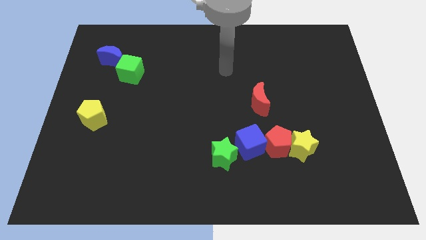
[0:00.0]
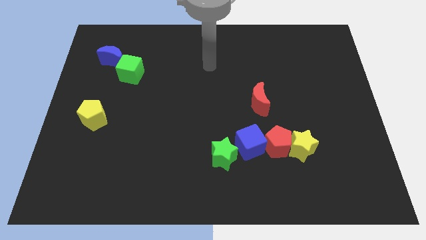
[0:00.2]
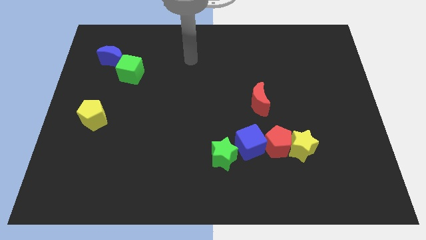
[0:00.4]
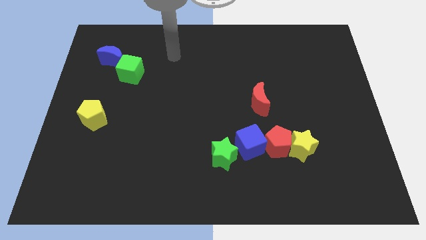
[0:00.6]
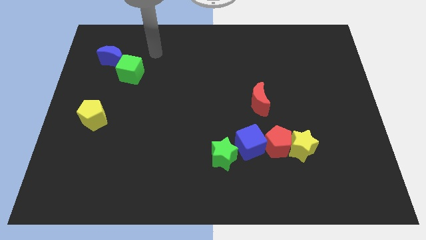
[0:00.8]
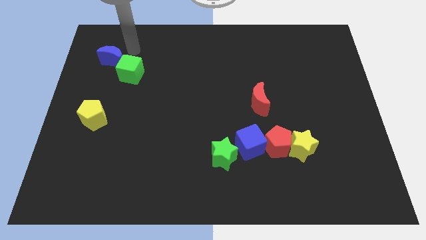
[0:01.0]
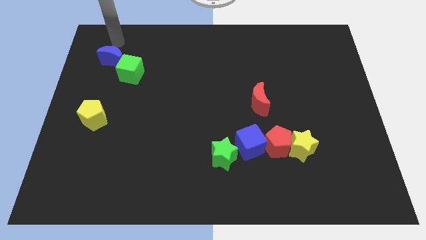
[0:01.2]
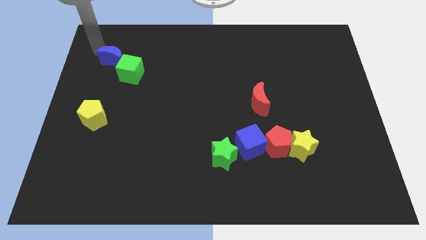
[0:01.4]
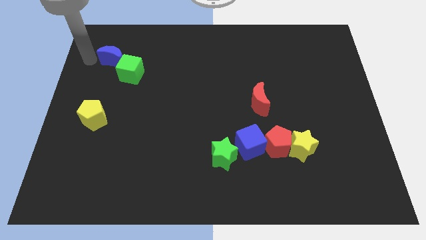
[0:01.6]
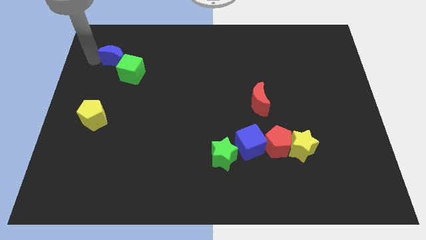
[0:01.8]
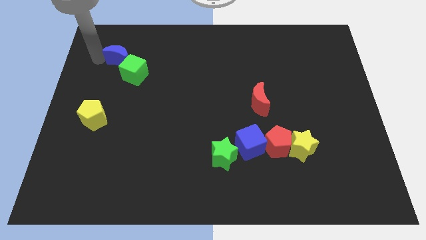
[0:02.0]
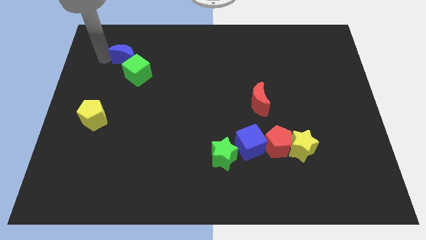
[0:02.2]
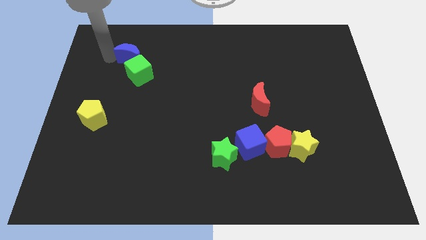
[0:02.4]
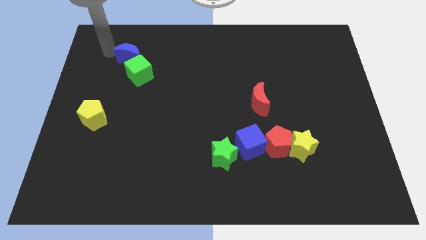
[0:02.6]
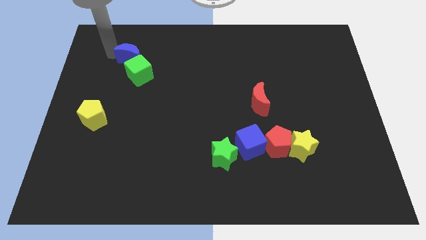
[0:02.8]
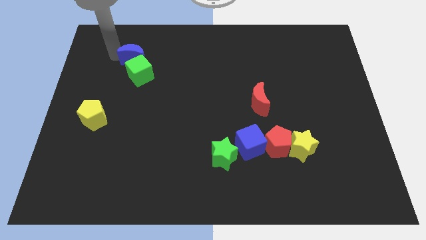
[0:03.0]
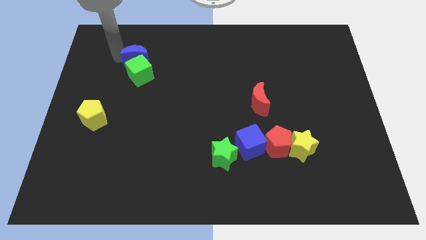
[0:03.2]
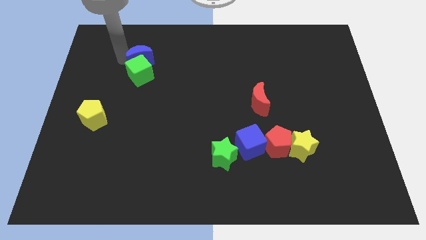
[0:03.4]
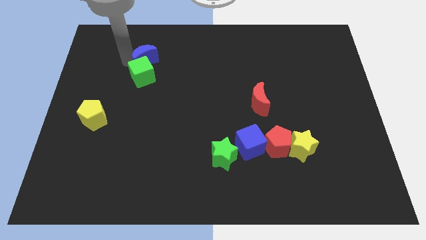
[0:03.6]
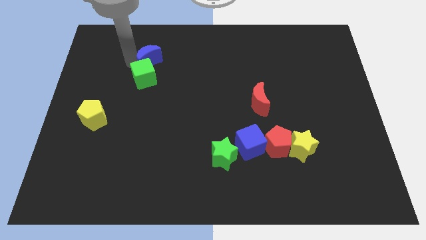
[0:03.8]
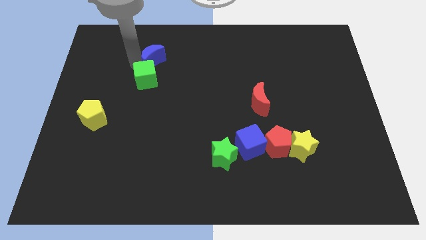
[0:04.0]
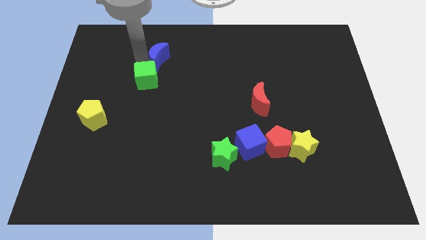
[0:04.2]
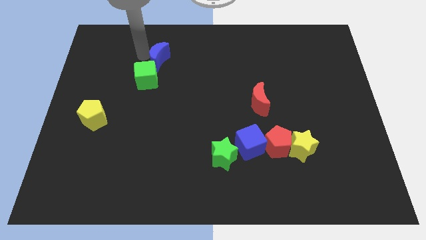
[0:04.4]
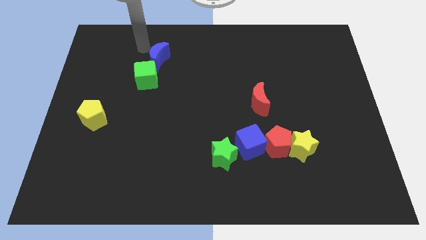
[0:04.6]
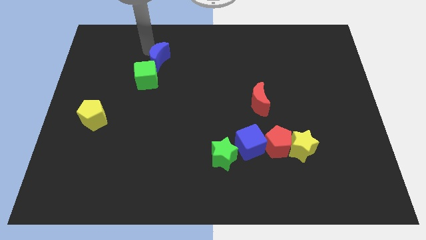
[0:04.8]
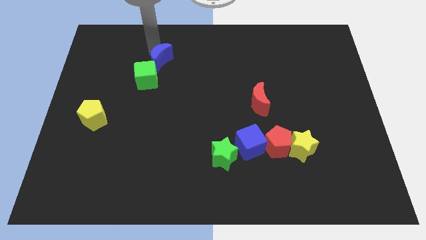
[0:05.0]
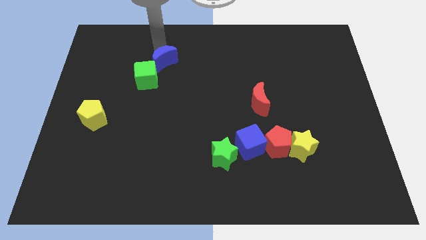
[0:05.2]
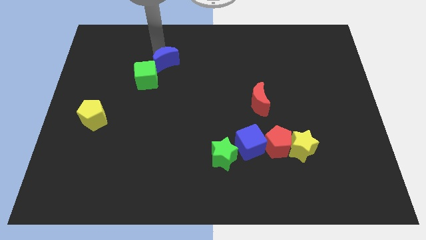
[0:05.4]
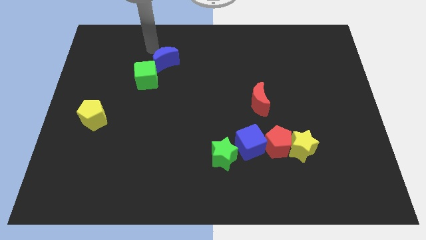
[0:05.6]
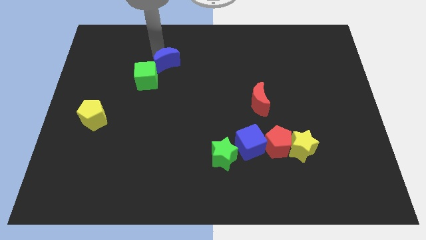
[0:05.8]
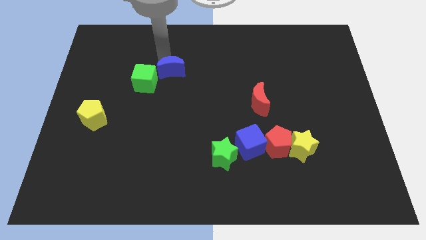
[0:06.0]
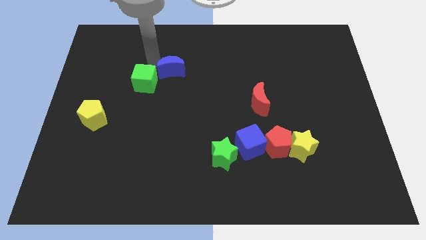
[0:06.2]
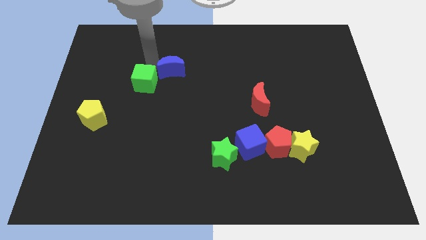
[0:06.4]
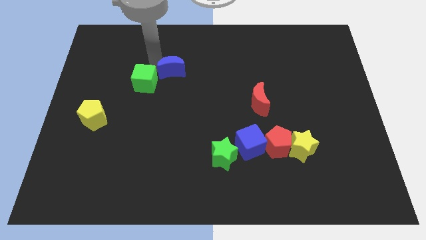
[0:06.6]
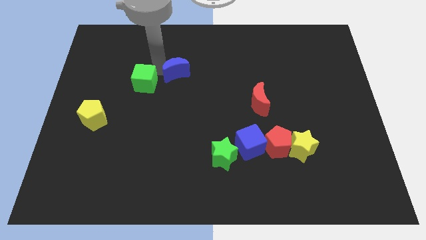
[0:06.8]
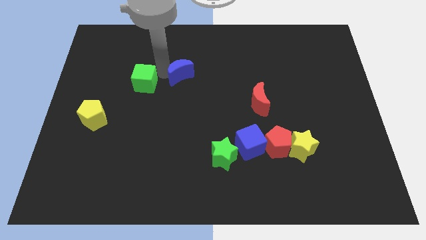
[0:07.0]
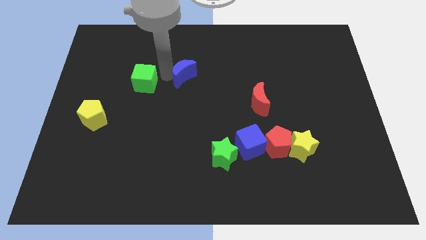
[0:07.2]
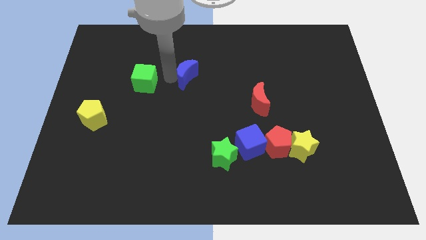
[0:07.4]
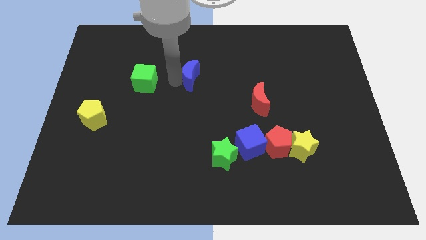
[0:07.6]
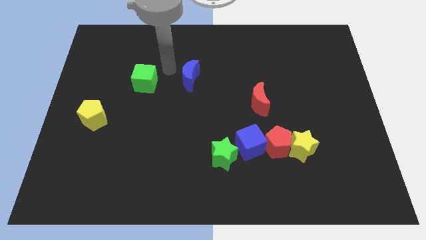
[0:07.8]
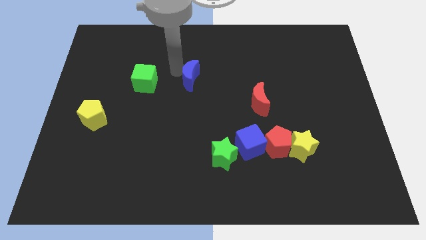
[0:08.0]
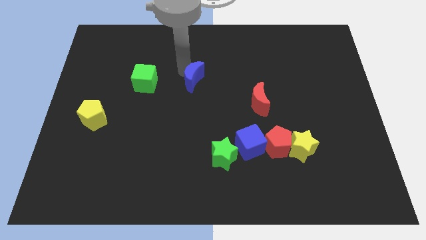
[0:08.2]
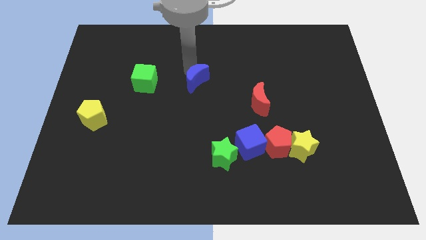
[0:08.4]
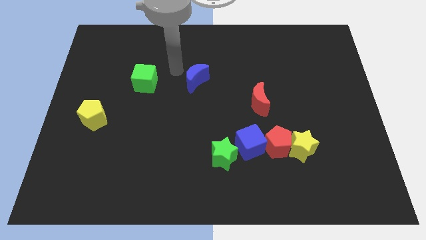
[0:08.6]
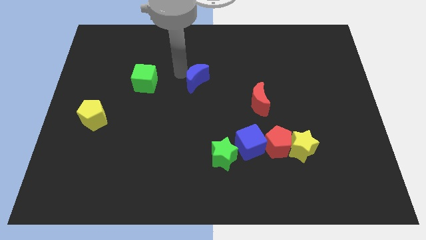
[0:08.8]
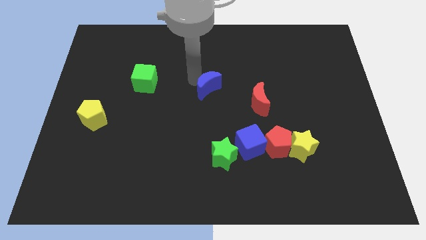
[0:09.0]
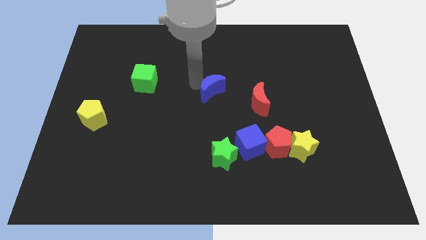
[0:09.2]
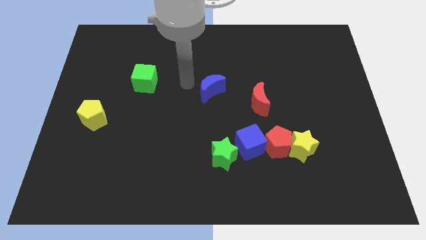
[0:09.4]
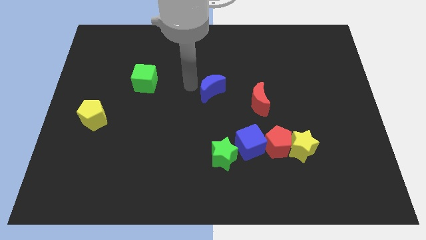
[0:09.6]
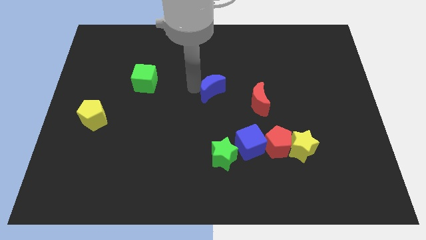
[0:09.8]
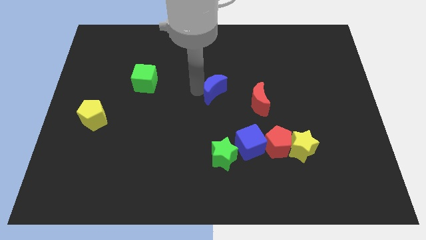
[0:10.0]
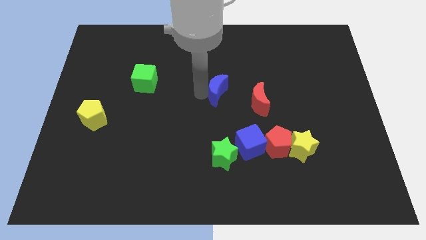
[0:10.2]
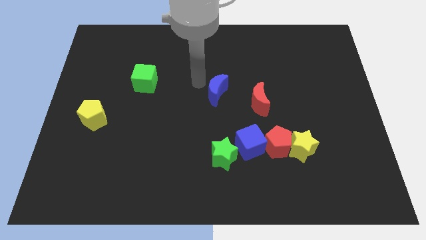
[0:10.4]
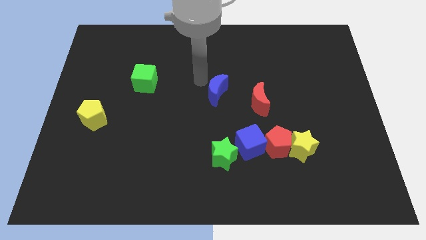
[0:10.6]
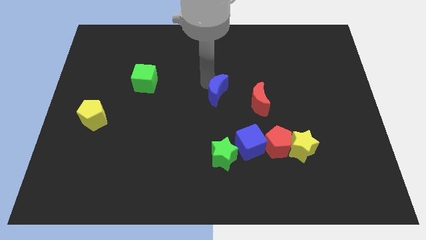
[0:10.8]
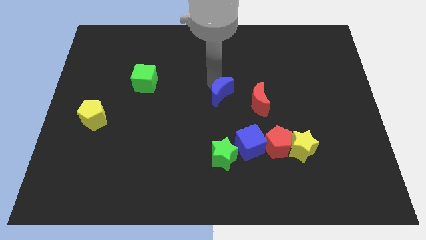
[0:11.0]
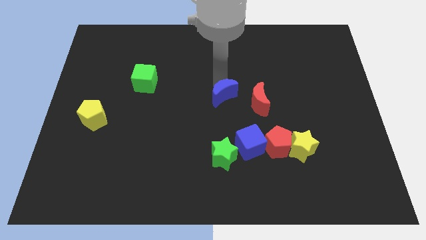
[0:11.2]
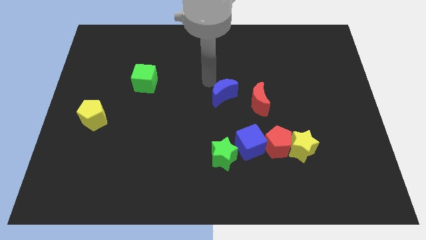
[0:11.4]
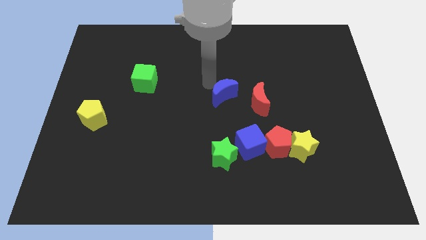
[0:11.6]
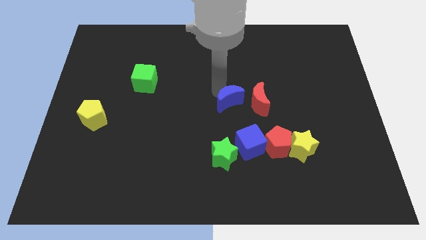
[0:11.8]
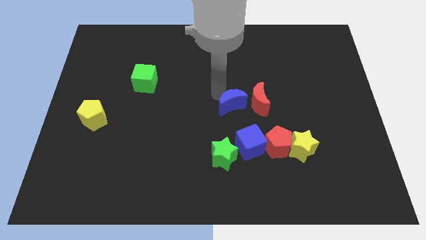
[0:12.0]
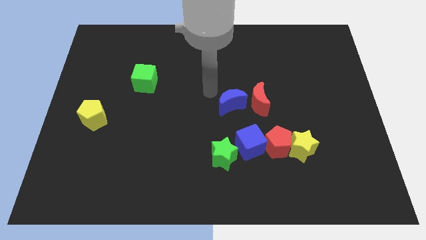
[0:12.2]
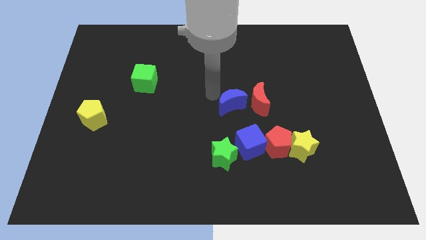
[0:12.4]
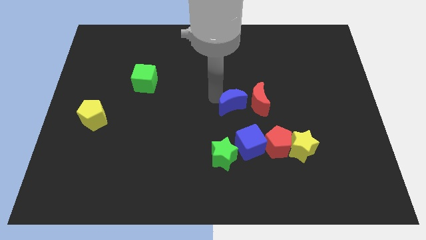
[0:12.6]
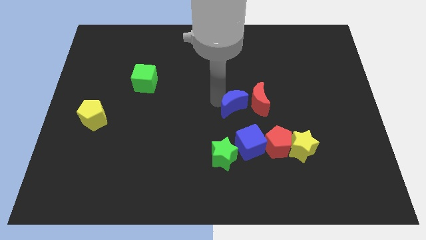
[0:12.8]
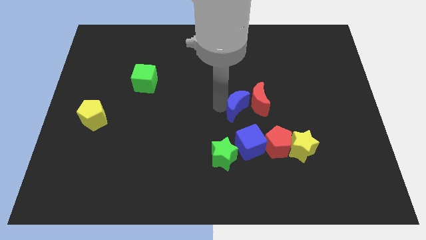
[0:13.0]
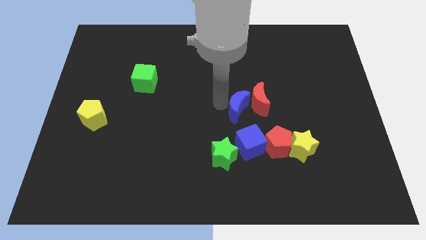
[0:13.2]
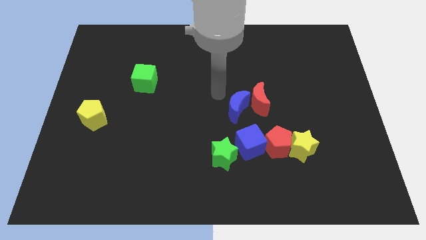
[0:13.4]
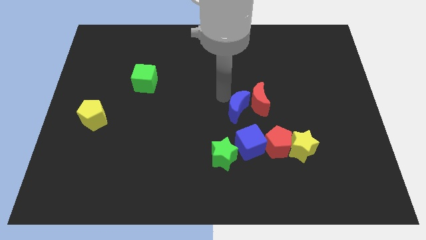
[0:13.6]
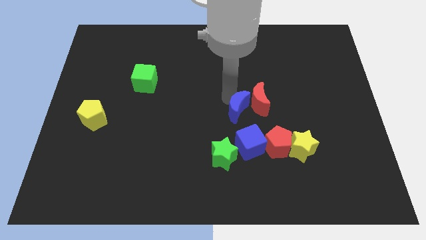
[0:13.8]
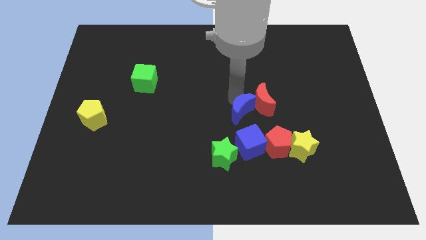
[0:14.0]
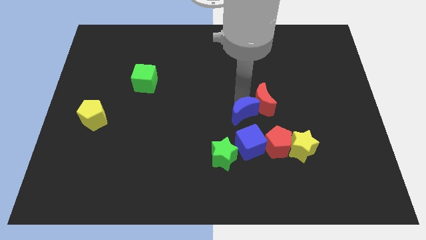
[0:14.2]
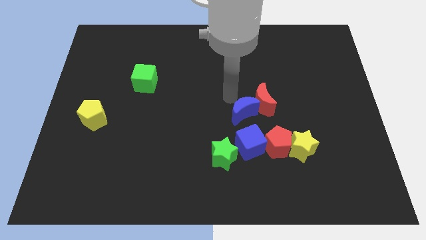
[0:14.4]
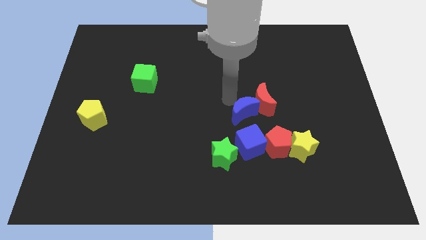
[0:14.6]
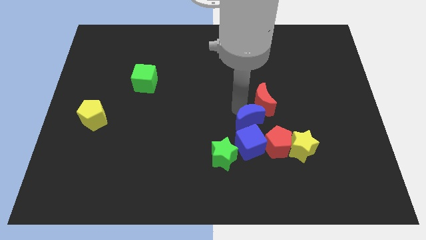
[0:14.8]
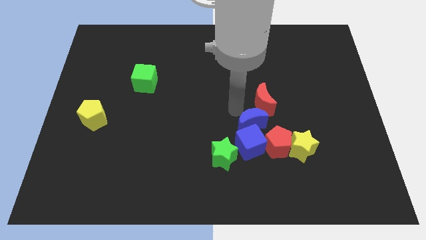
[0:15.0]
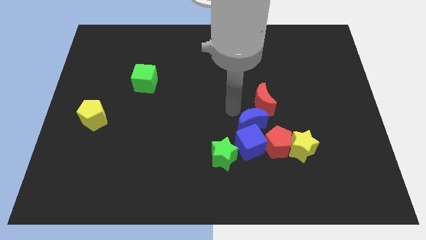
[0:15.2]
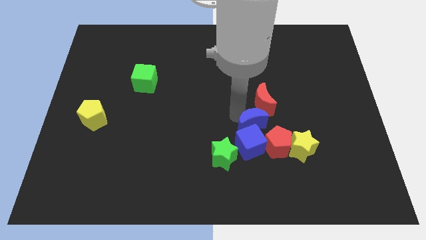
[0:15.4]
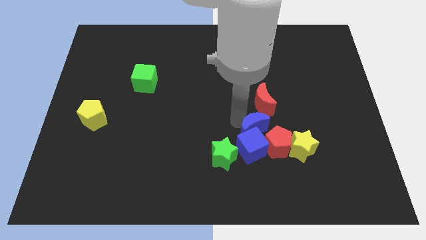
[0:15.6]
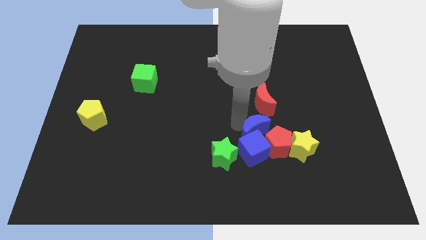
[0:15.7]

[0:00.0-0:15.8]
move the blue moon to the red pentagon
